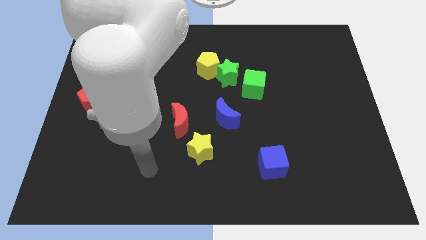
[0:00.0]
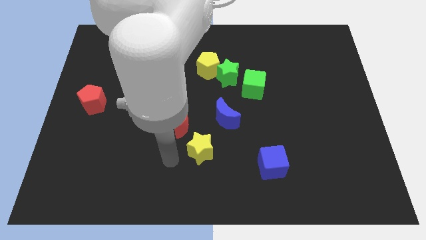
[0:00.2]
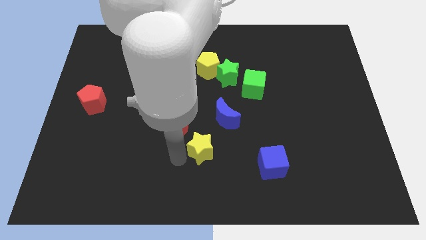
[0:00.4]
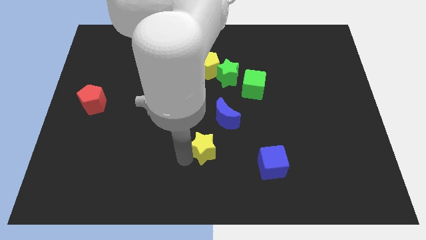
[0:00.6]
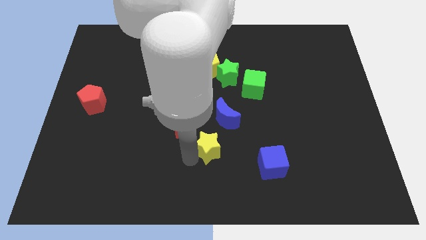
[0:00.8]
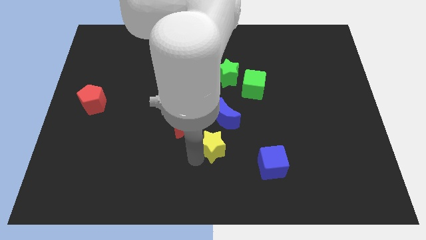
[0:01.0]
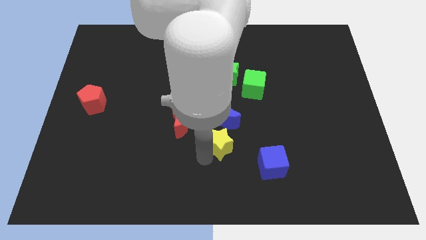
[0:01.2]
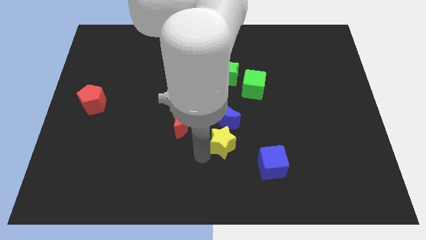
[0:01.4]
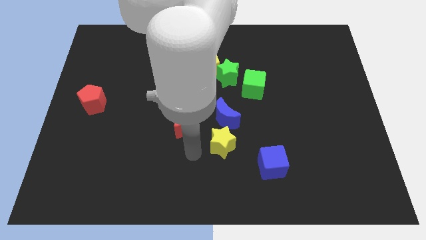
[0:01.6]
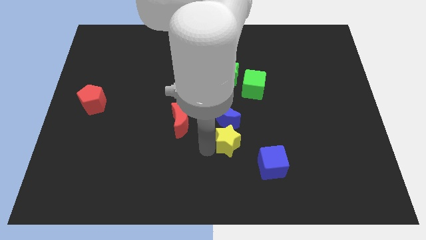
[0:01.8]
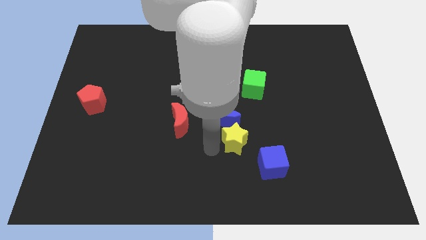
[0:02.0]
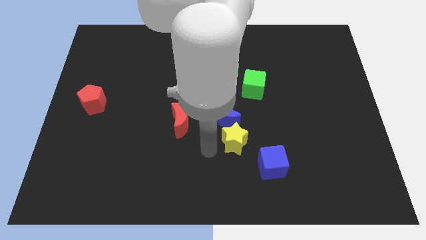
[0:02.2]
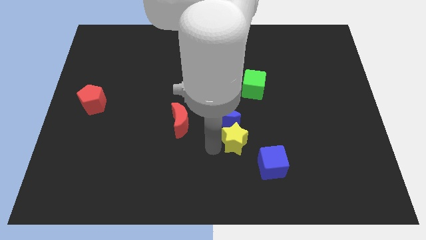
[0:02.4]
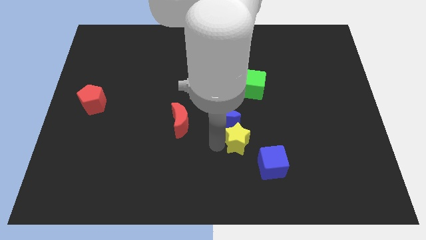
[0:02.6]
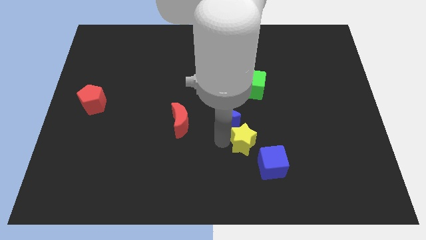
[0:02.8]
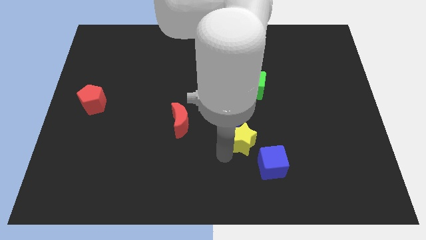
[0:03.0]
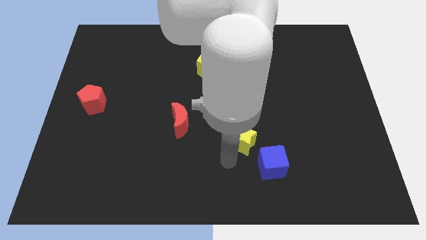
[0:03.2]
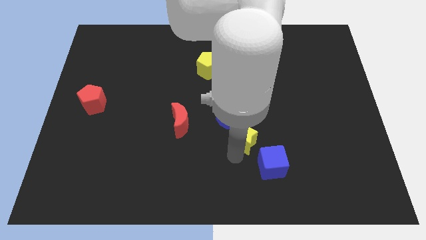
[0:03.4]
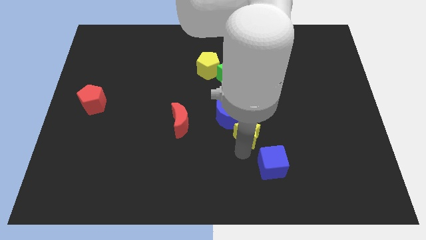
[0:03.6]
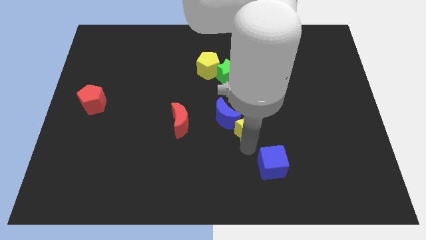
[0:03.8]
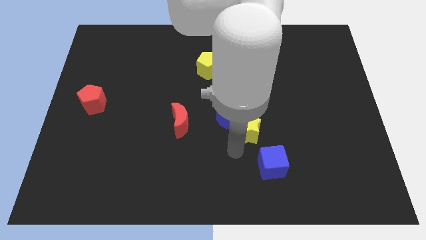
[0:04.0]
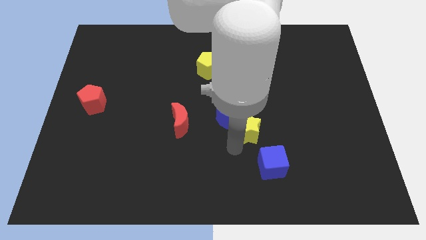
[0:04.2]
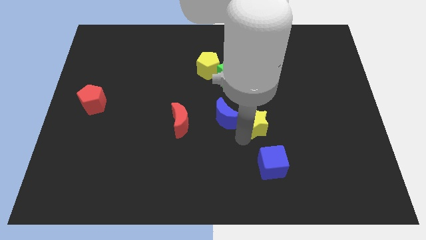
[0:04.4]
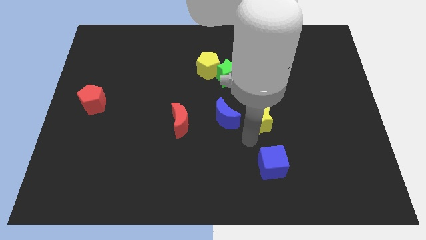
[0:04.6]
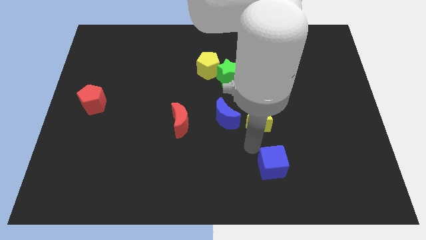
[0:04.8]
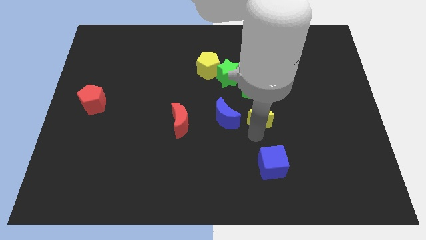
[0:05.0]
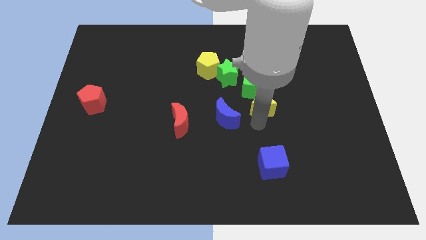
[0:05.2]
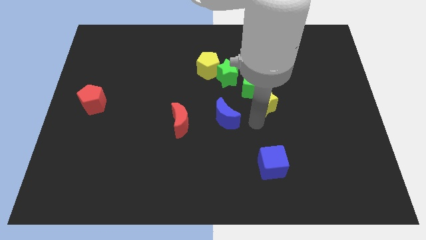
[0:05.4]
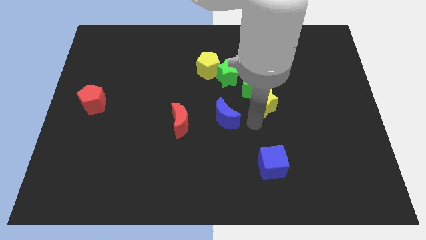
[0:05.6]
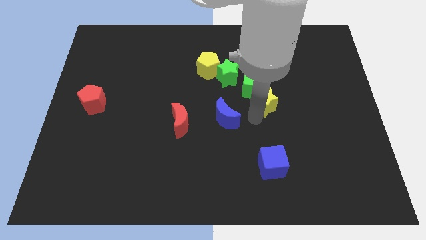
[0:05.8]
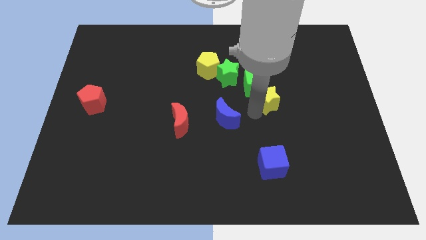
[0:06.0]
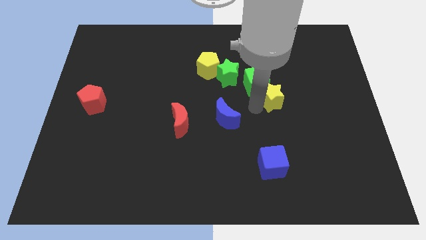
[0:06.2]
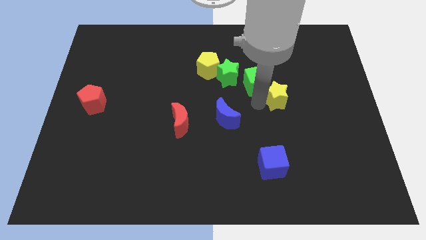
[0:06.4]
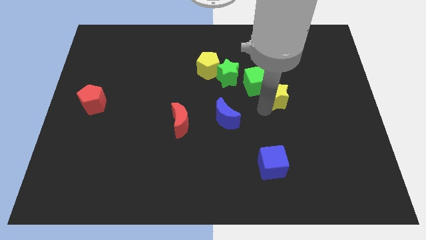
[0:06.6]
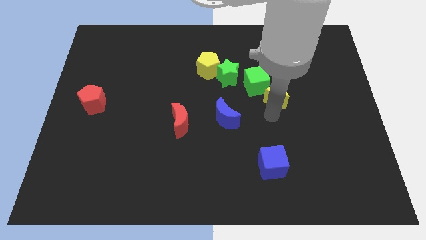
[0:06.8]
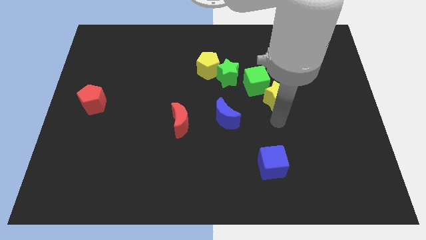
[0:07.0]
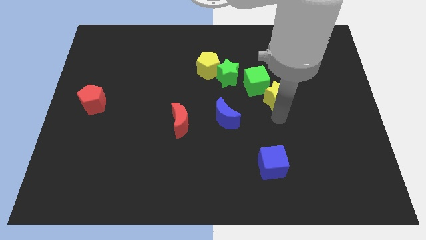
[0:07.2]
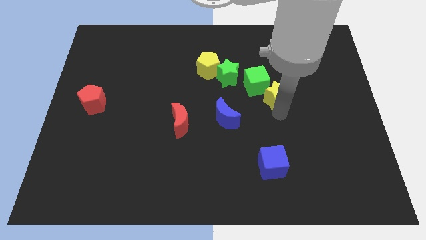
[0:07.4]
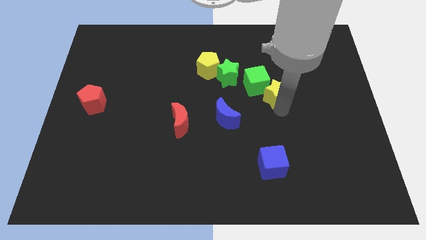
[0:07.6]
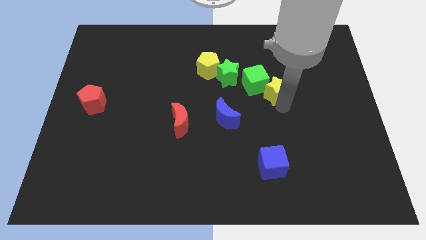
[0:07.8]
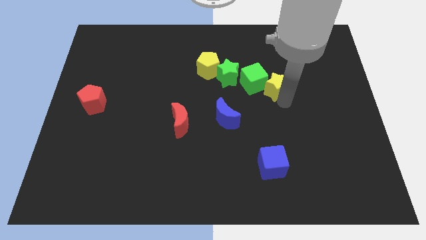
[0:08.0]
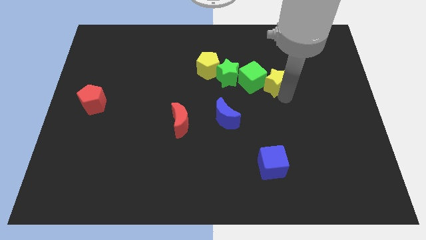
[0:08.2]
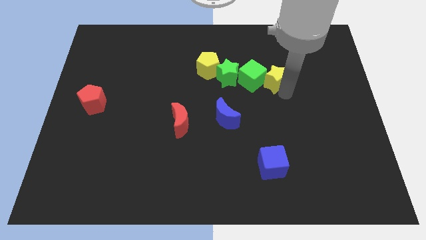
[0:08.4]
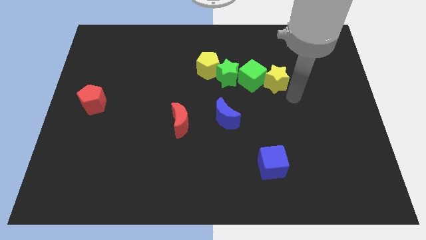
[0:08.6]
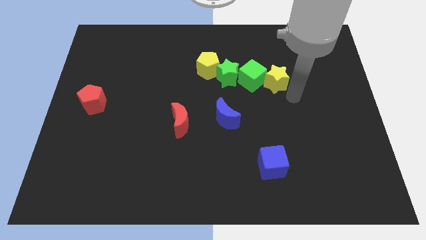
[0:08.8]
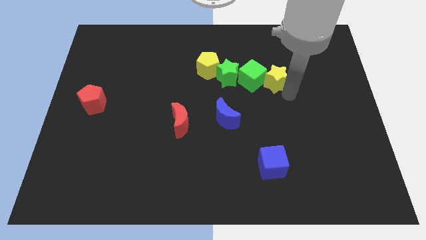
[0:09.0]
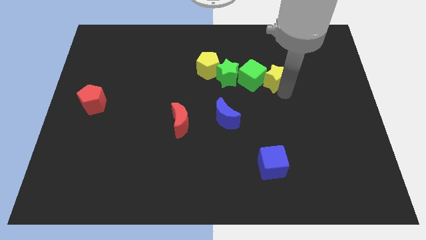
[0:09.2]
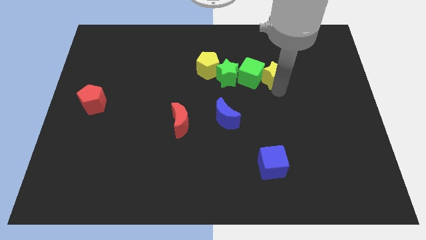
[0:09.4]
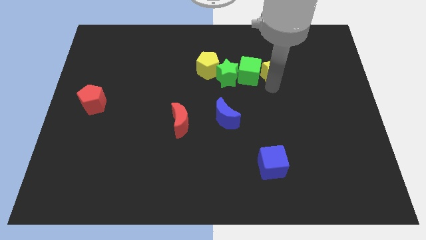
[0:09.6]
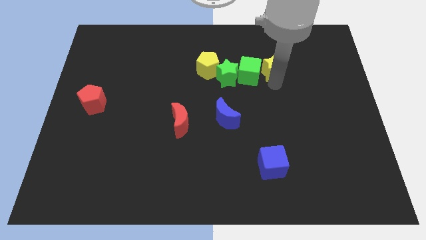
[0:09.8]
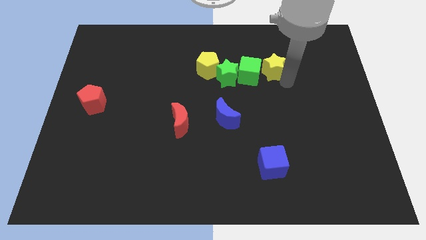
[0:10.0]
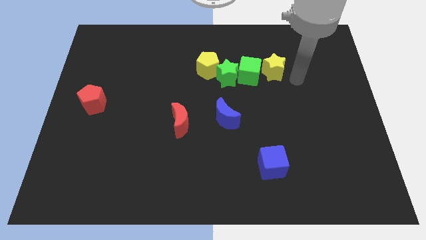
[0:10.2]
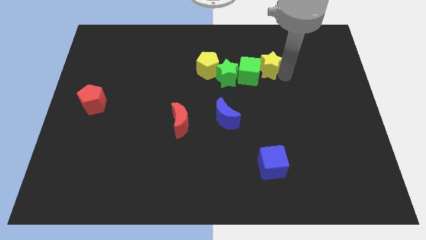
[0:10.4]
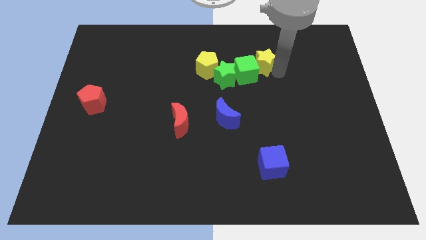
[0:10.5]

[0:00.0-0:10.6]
slide the yellow star diagonally up and to the right of the green star
